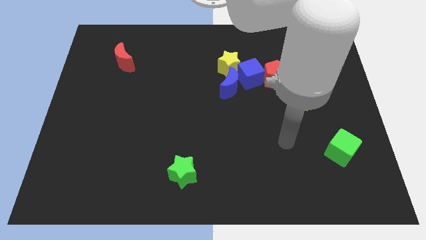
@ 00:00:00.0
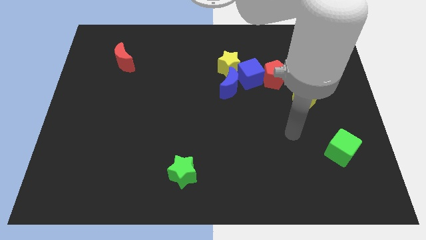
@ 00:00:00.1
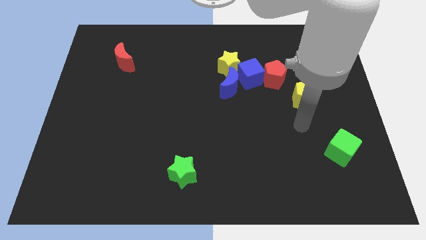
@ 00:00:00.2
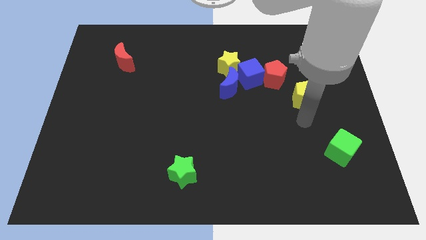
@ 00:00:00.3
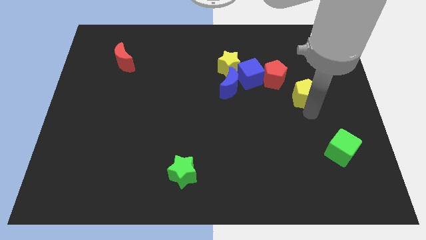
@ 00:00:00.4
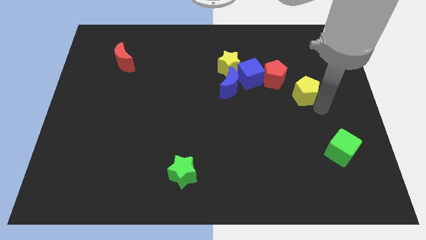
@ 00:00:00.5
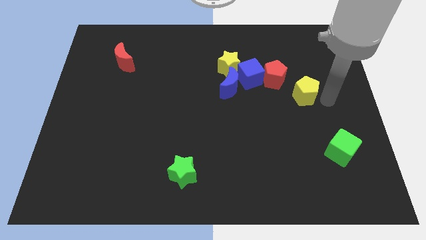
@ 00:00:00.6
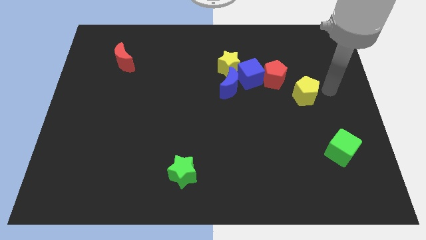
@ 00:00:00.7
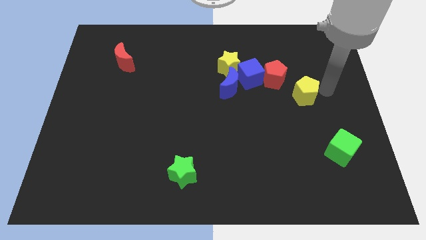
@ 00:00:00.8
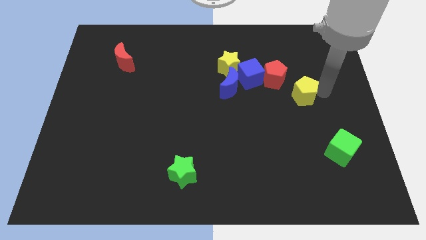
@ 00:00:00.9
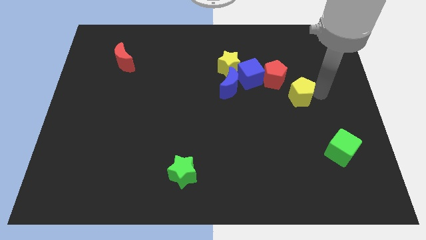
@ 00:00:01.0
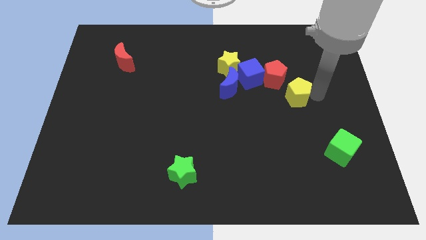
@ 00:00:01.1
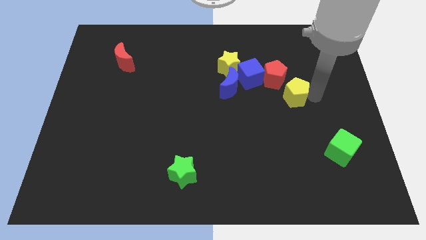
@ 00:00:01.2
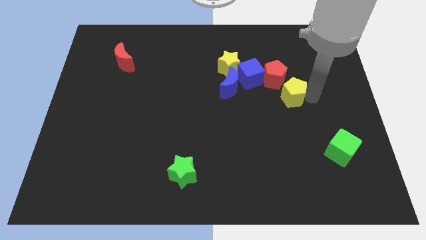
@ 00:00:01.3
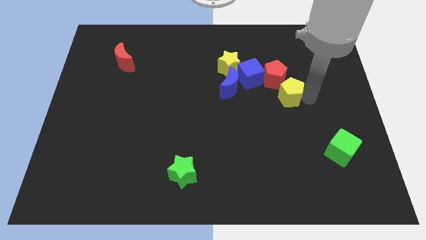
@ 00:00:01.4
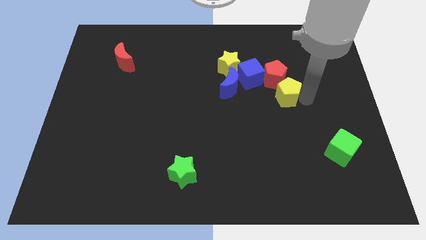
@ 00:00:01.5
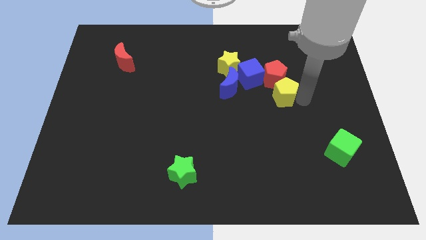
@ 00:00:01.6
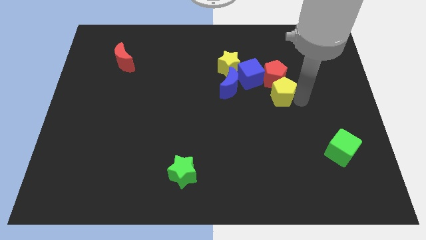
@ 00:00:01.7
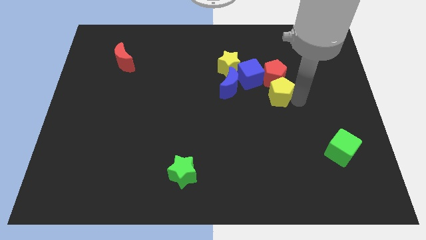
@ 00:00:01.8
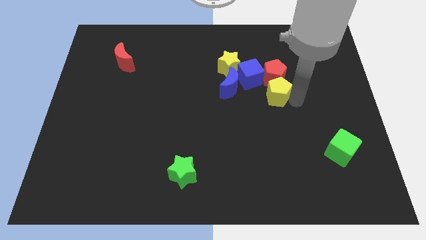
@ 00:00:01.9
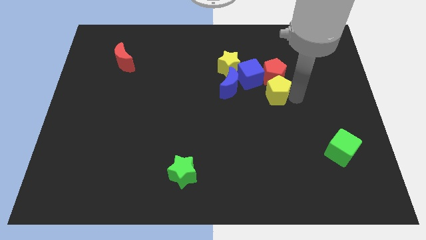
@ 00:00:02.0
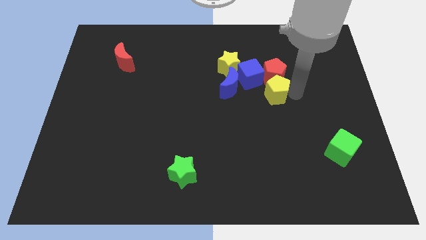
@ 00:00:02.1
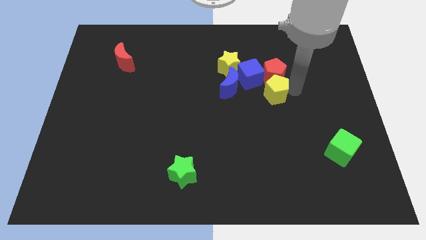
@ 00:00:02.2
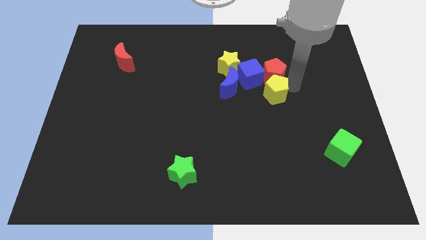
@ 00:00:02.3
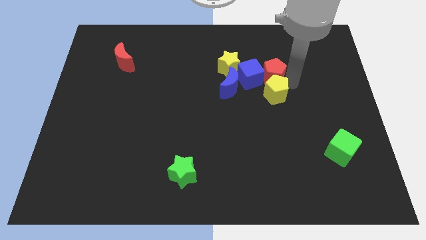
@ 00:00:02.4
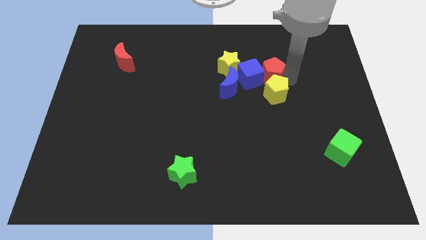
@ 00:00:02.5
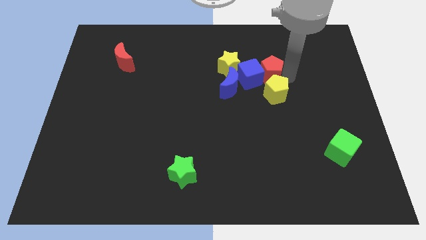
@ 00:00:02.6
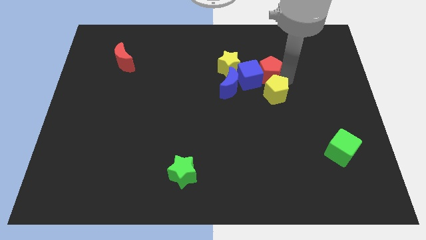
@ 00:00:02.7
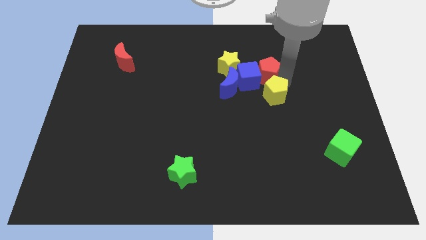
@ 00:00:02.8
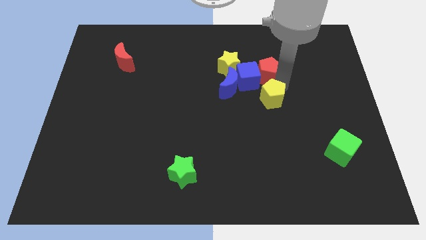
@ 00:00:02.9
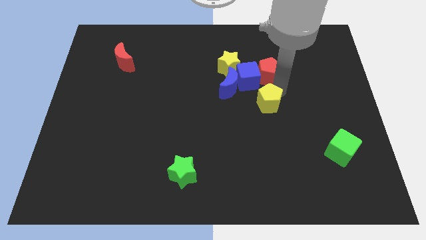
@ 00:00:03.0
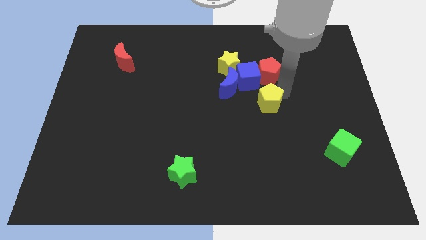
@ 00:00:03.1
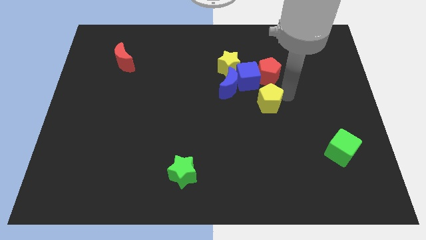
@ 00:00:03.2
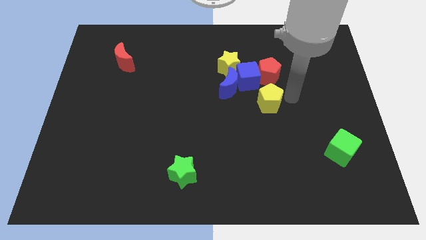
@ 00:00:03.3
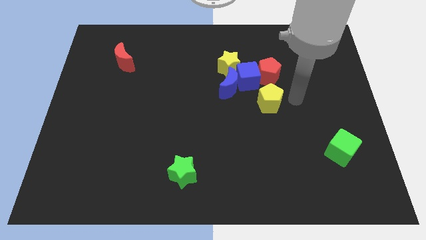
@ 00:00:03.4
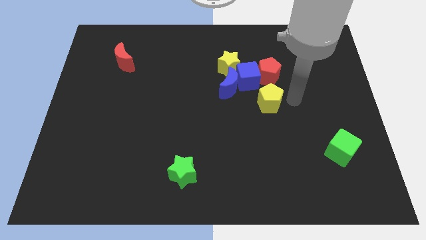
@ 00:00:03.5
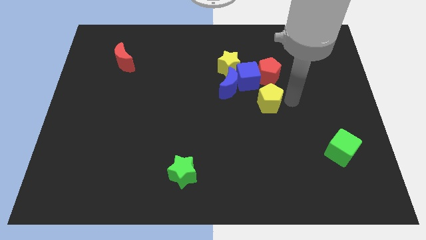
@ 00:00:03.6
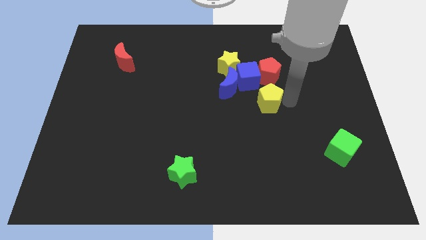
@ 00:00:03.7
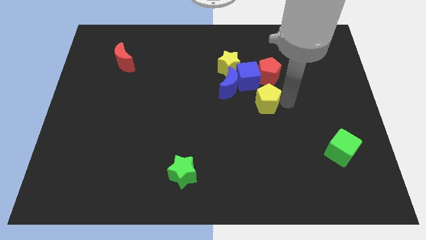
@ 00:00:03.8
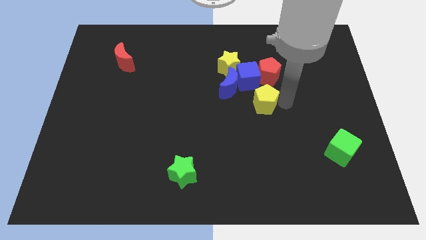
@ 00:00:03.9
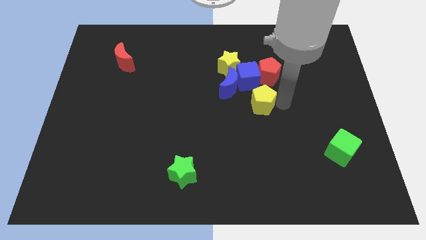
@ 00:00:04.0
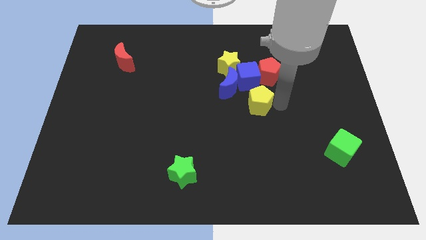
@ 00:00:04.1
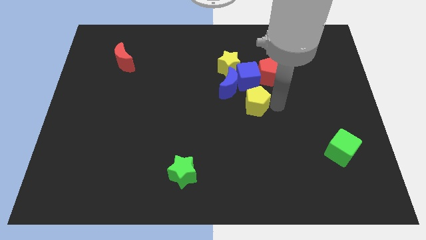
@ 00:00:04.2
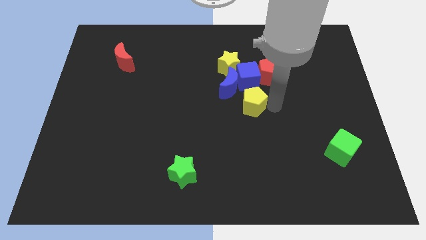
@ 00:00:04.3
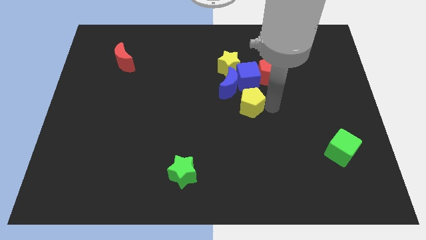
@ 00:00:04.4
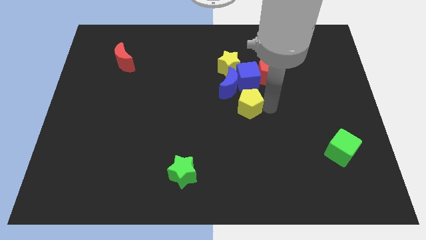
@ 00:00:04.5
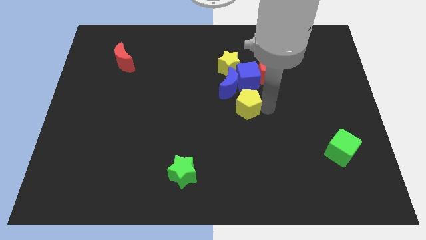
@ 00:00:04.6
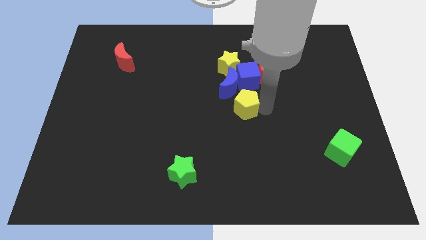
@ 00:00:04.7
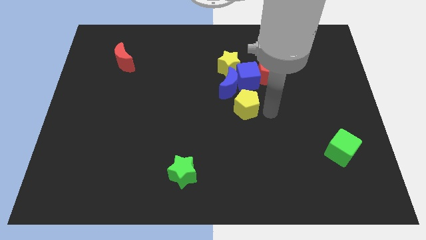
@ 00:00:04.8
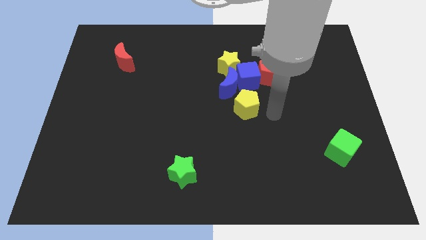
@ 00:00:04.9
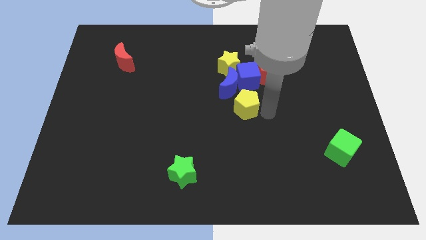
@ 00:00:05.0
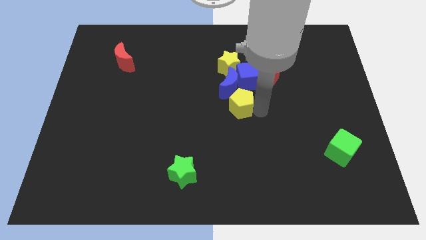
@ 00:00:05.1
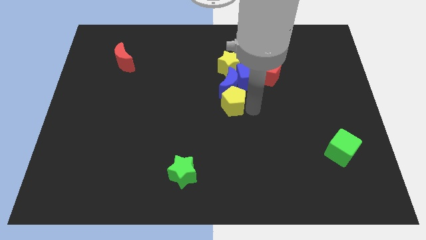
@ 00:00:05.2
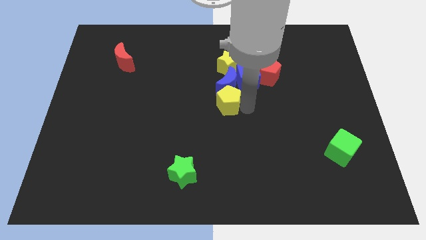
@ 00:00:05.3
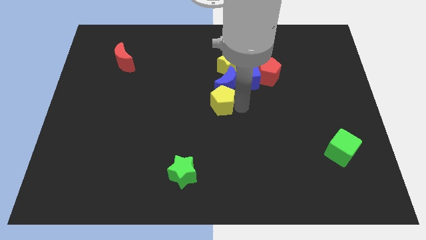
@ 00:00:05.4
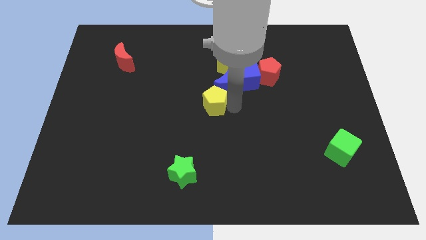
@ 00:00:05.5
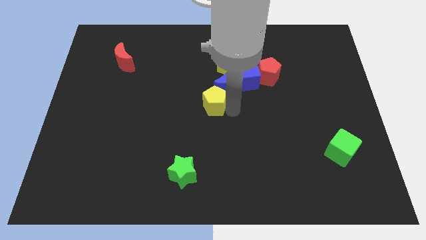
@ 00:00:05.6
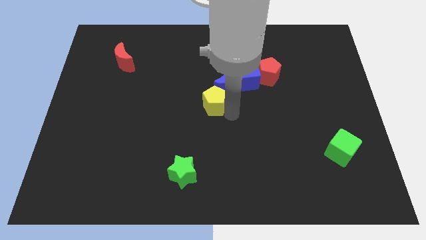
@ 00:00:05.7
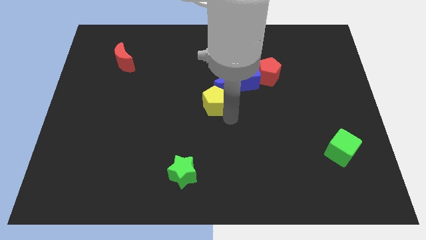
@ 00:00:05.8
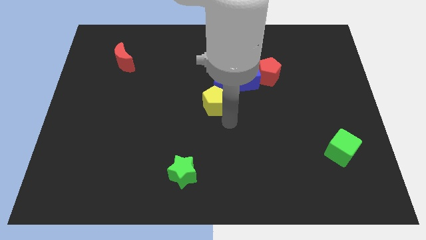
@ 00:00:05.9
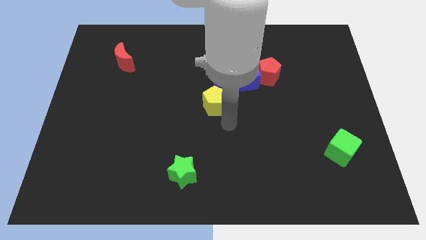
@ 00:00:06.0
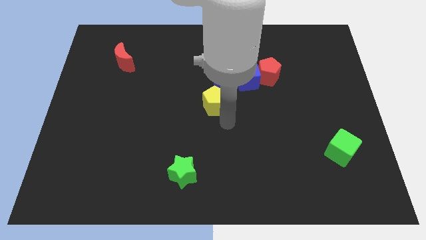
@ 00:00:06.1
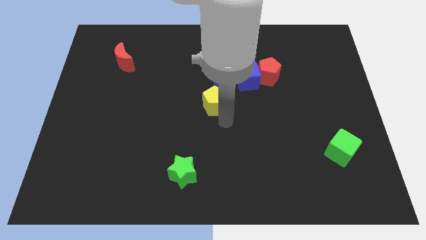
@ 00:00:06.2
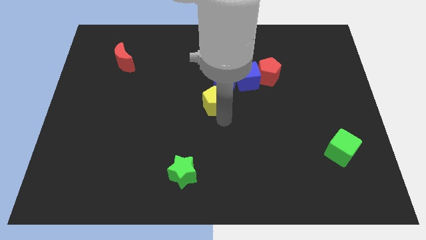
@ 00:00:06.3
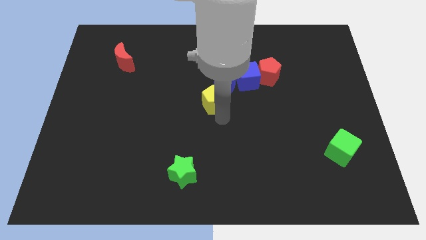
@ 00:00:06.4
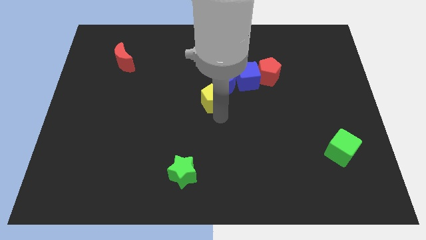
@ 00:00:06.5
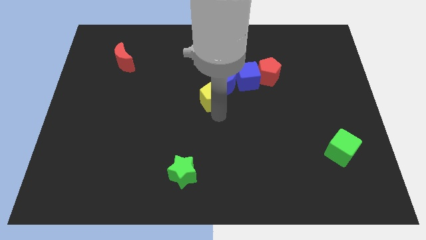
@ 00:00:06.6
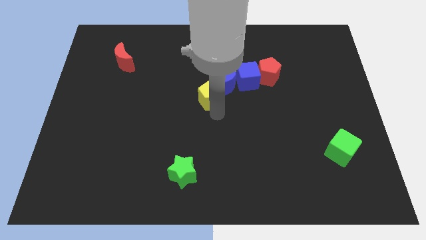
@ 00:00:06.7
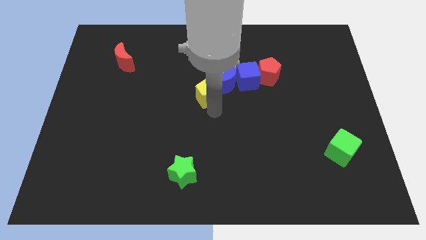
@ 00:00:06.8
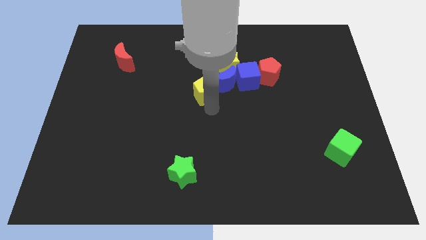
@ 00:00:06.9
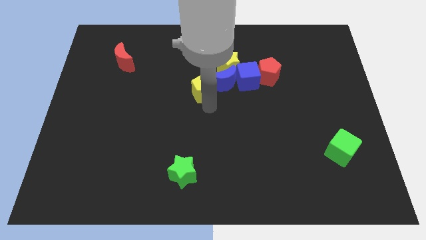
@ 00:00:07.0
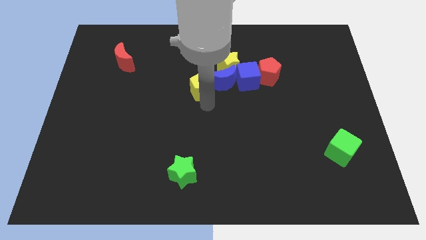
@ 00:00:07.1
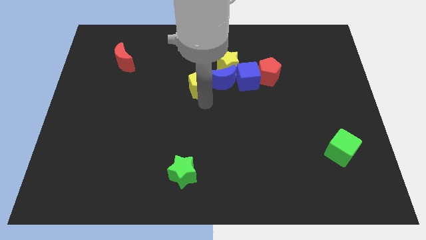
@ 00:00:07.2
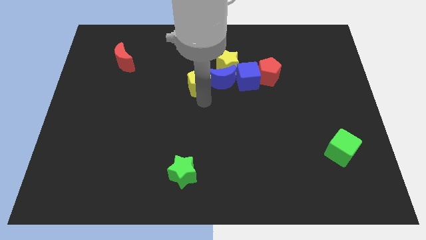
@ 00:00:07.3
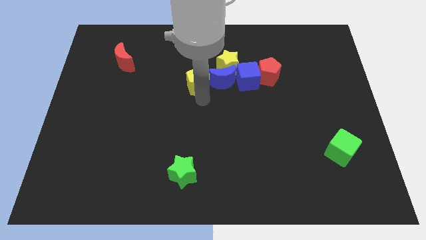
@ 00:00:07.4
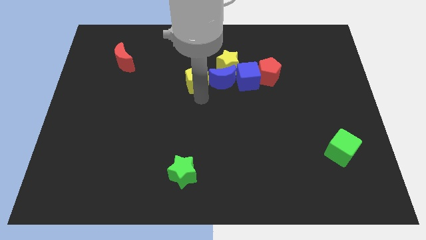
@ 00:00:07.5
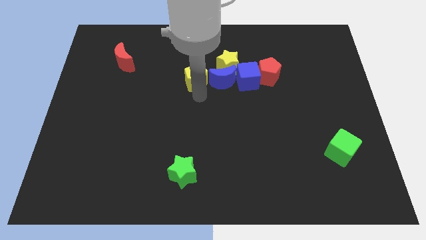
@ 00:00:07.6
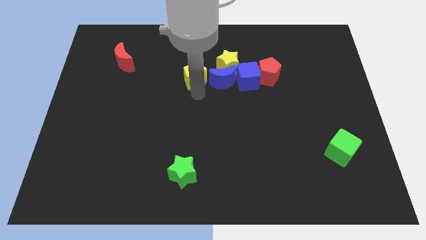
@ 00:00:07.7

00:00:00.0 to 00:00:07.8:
move the yellow pentagon to the left side of the yellow star
